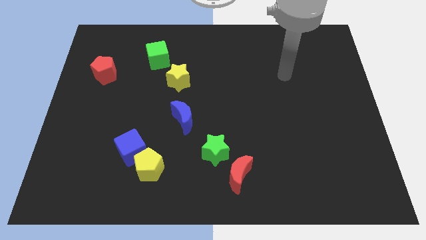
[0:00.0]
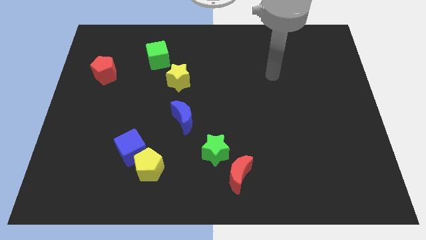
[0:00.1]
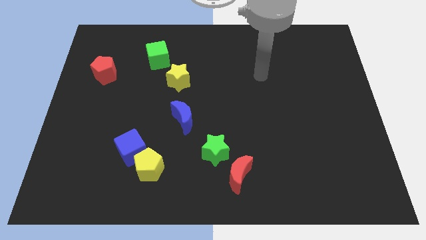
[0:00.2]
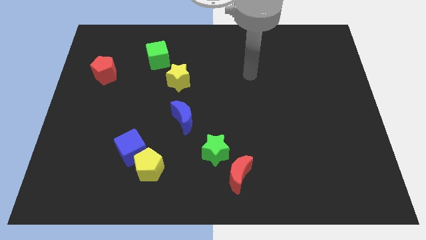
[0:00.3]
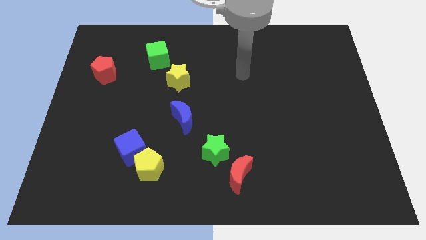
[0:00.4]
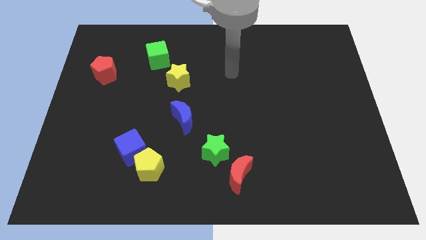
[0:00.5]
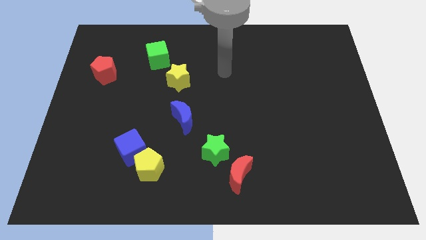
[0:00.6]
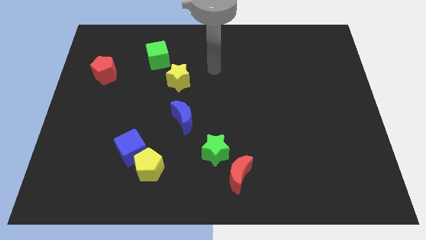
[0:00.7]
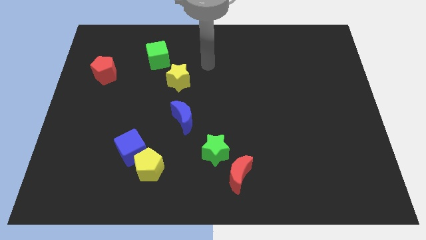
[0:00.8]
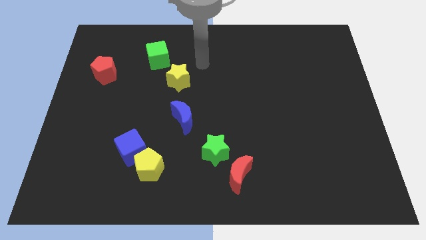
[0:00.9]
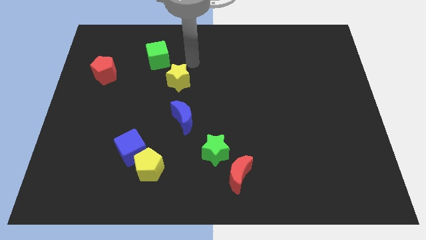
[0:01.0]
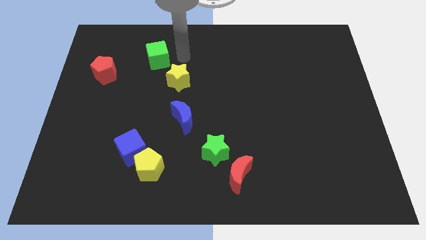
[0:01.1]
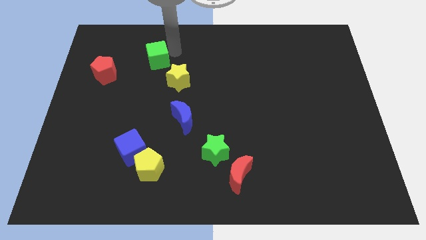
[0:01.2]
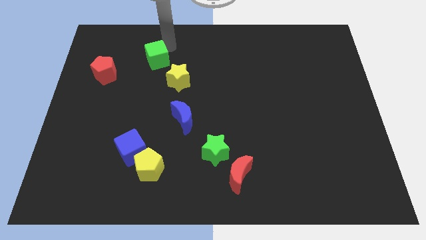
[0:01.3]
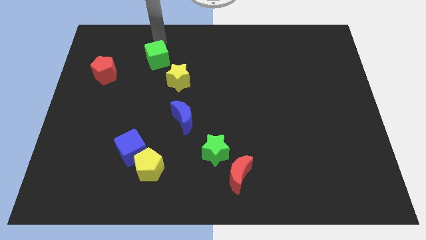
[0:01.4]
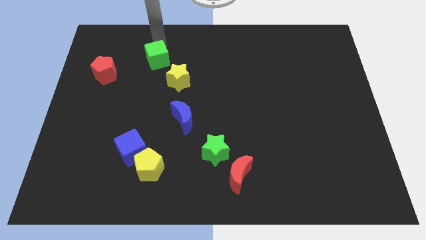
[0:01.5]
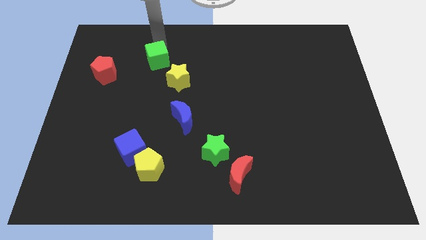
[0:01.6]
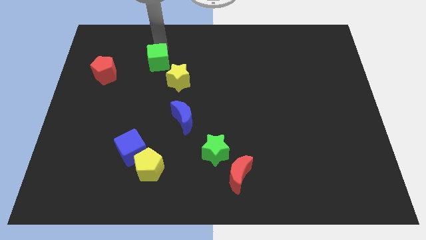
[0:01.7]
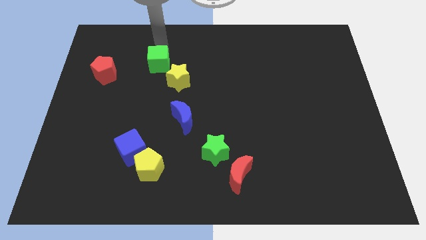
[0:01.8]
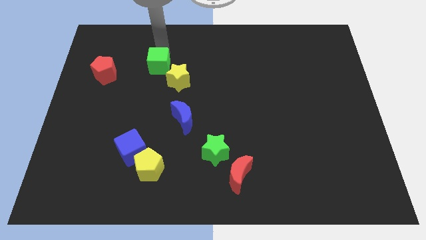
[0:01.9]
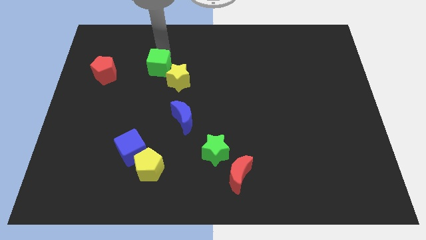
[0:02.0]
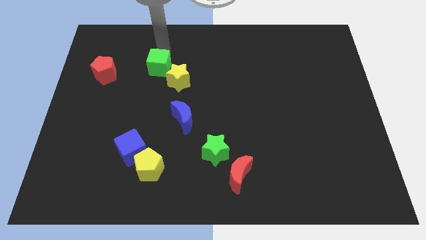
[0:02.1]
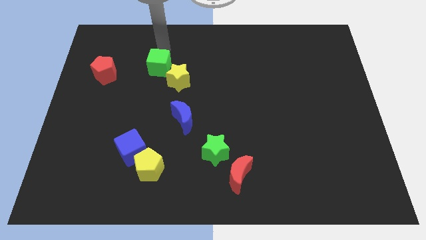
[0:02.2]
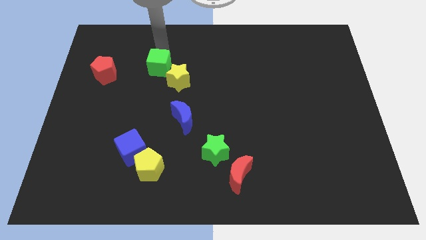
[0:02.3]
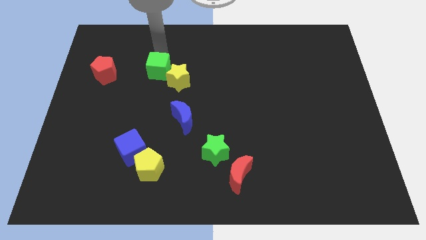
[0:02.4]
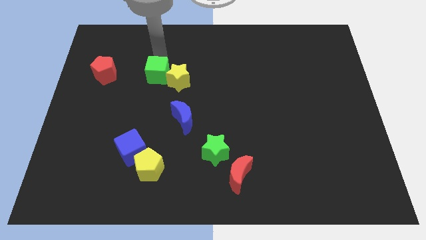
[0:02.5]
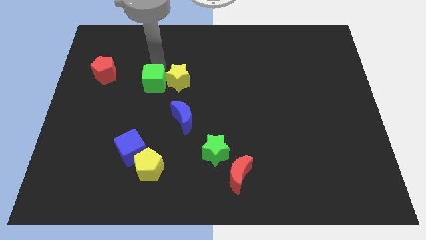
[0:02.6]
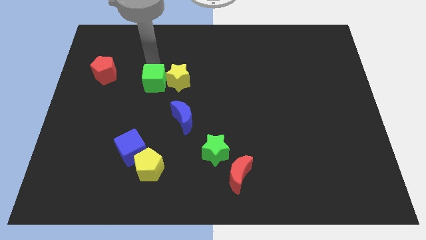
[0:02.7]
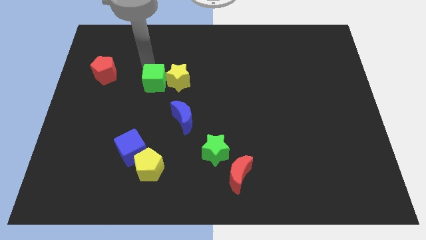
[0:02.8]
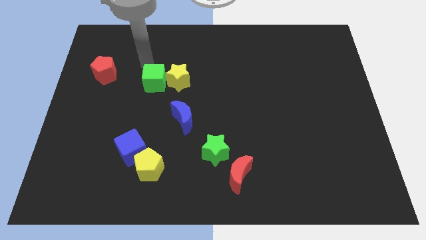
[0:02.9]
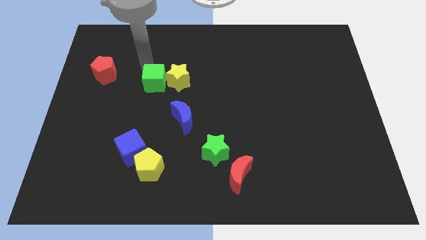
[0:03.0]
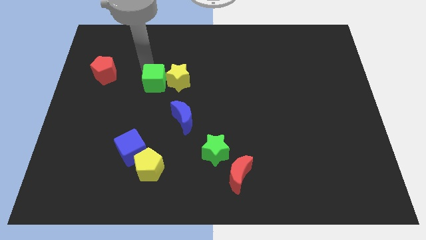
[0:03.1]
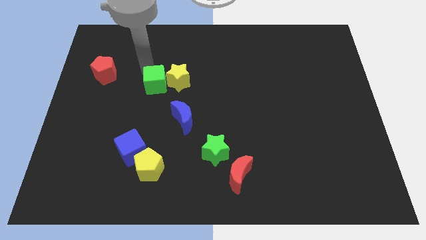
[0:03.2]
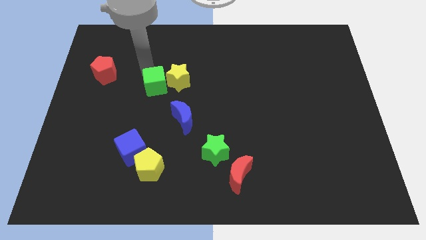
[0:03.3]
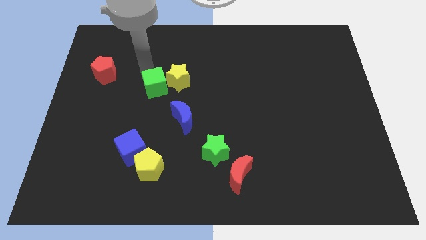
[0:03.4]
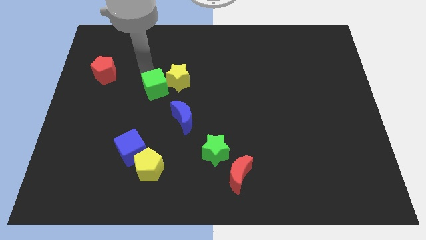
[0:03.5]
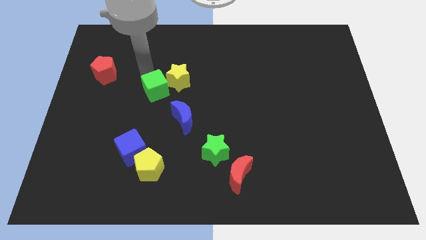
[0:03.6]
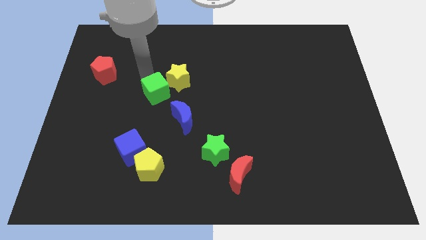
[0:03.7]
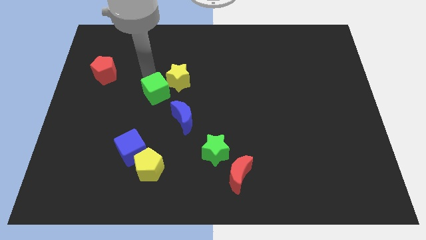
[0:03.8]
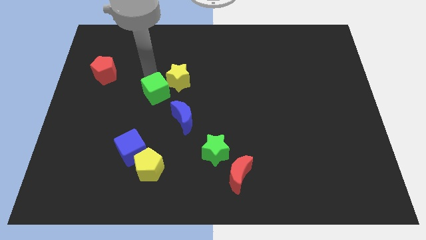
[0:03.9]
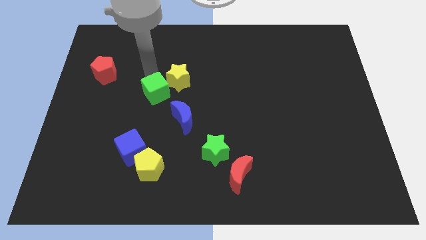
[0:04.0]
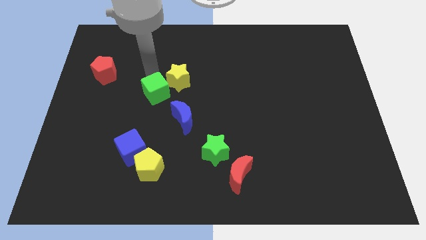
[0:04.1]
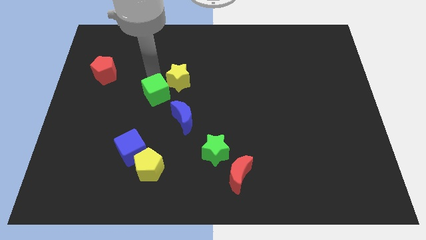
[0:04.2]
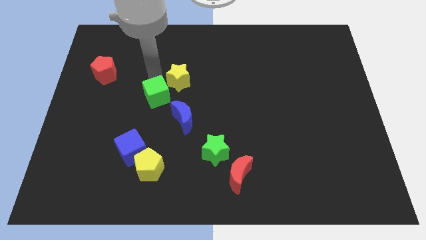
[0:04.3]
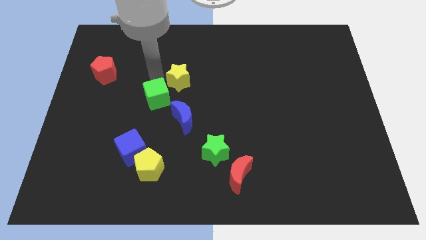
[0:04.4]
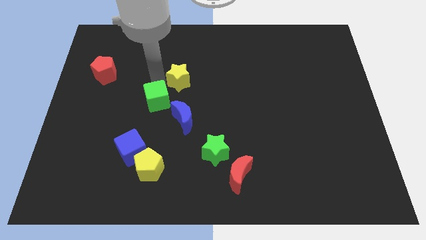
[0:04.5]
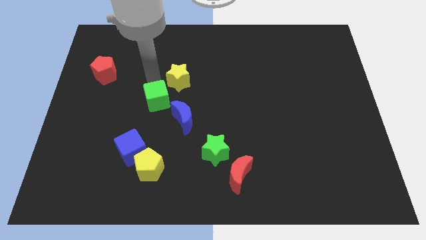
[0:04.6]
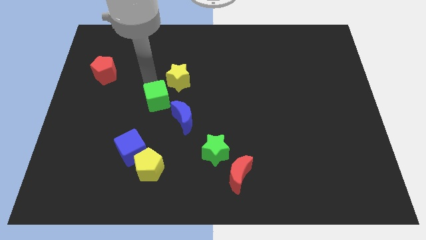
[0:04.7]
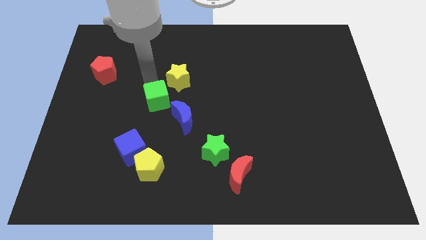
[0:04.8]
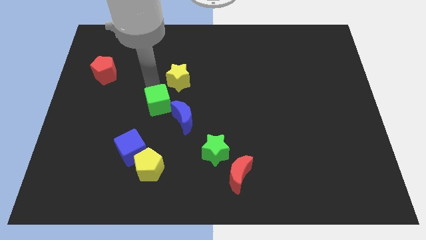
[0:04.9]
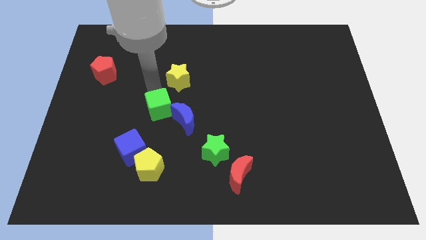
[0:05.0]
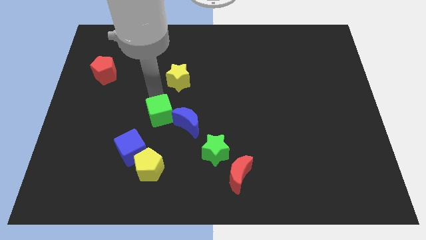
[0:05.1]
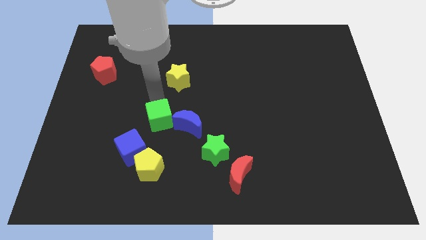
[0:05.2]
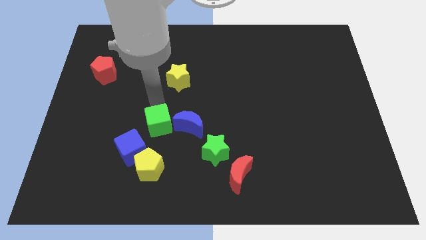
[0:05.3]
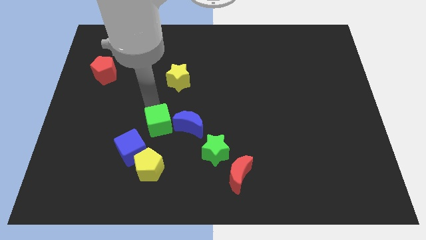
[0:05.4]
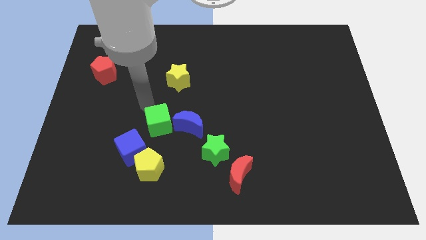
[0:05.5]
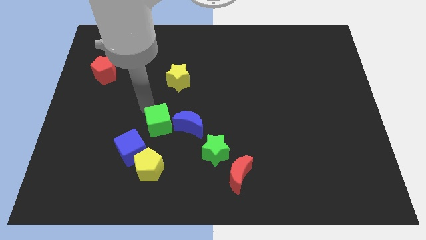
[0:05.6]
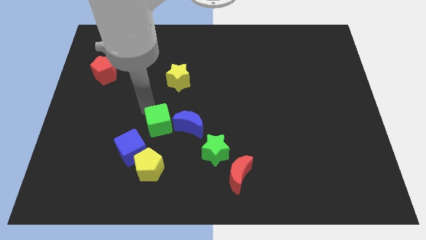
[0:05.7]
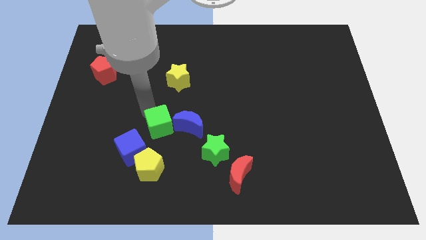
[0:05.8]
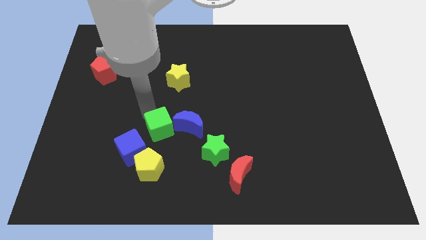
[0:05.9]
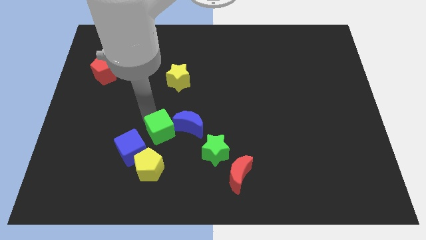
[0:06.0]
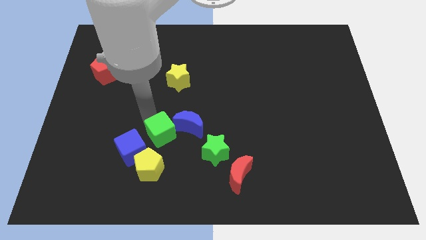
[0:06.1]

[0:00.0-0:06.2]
slide the green cube diagonally up and to the right of the yellow pentagon

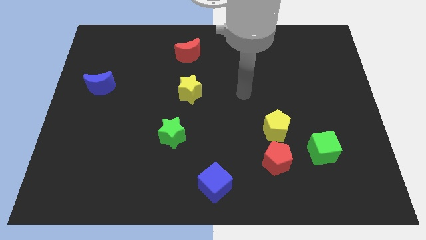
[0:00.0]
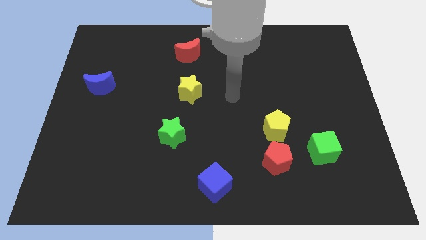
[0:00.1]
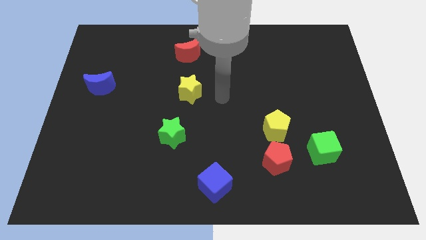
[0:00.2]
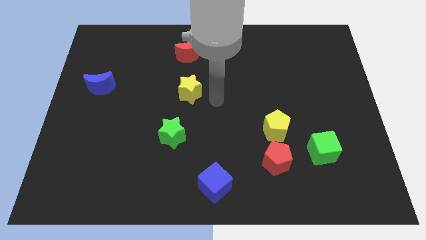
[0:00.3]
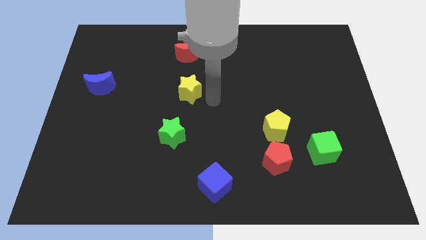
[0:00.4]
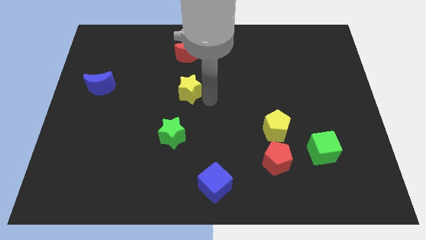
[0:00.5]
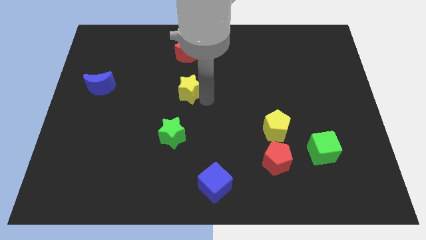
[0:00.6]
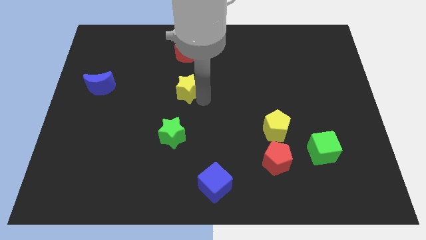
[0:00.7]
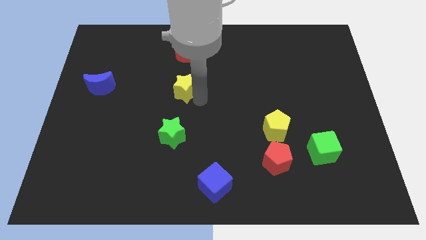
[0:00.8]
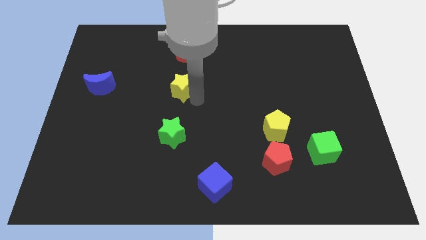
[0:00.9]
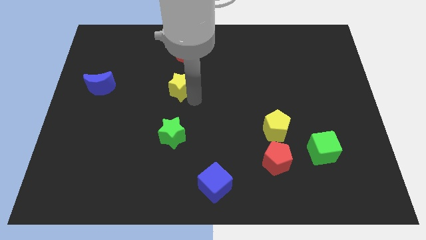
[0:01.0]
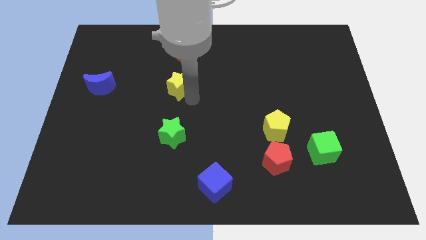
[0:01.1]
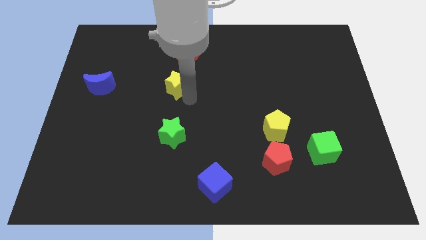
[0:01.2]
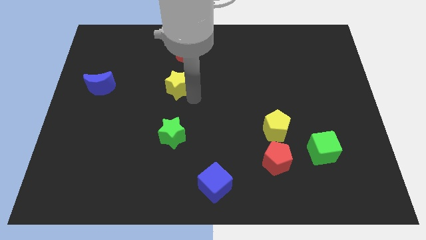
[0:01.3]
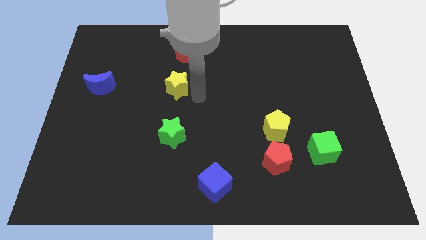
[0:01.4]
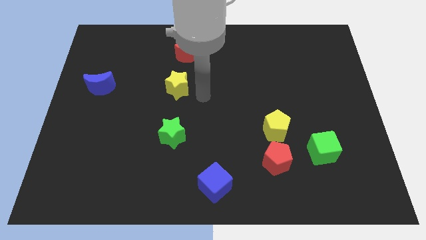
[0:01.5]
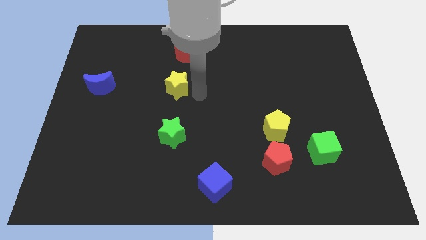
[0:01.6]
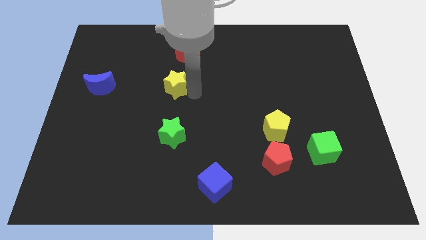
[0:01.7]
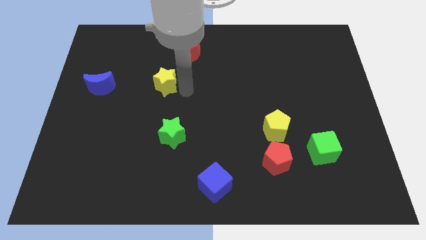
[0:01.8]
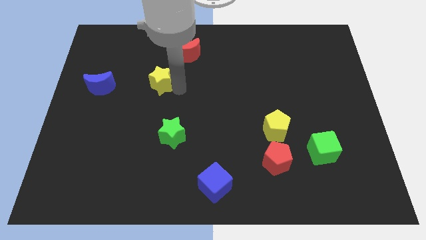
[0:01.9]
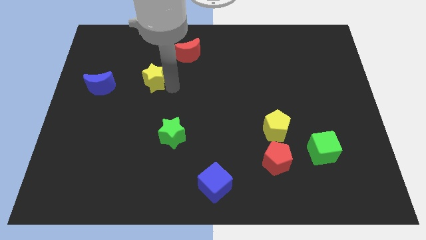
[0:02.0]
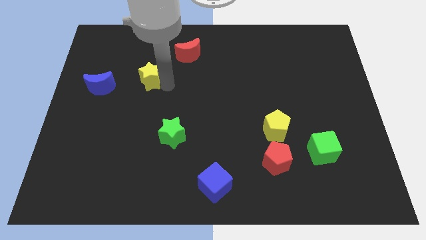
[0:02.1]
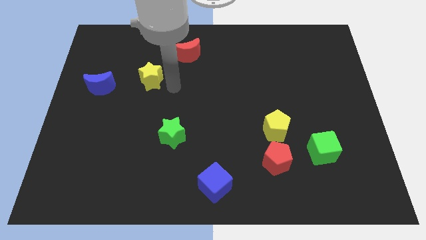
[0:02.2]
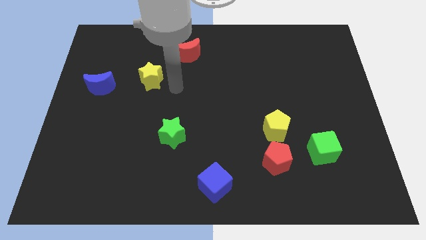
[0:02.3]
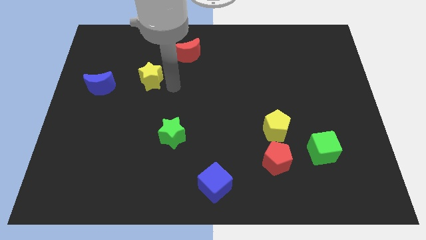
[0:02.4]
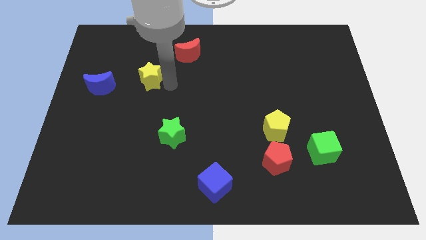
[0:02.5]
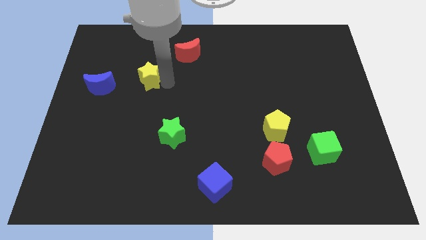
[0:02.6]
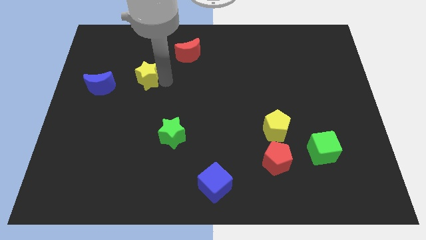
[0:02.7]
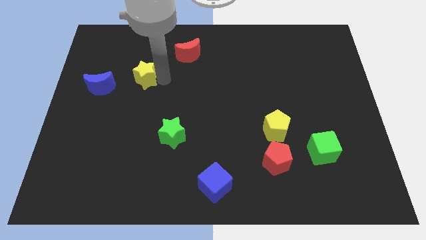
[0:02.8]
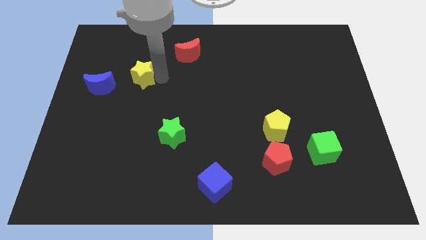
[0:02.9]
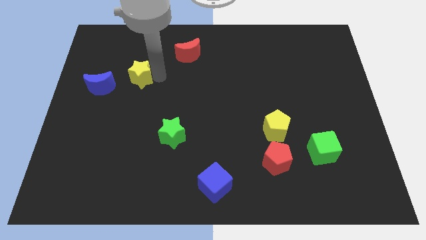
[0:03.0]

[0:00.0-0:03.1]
put the yellow star to the top right side of the blue moon
